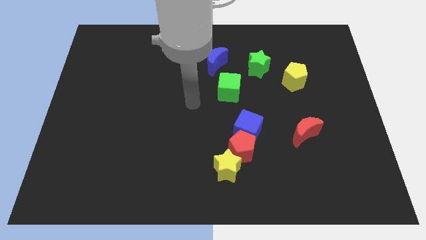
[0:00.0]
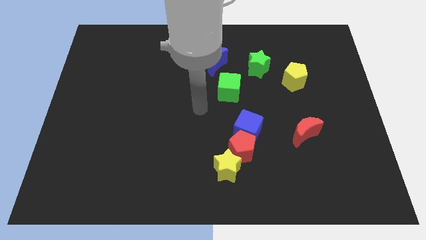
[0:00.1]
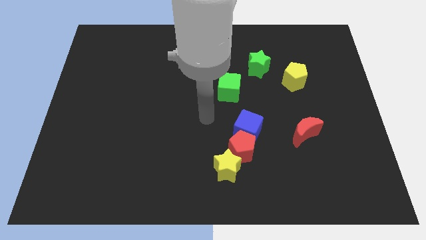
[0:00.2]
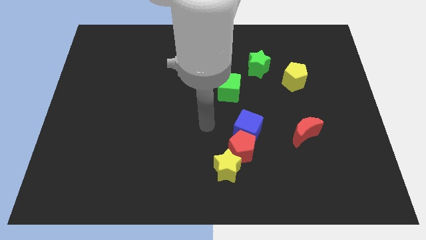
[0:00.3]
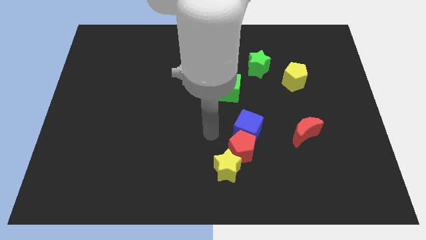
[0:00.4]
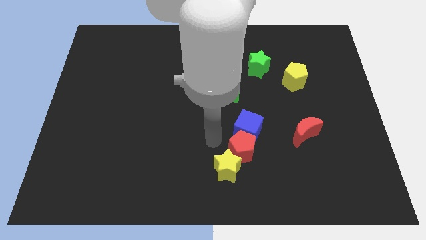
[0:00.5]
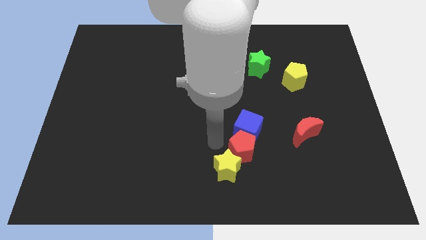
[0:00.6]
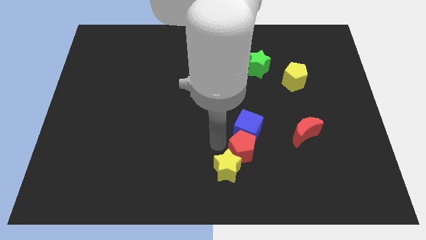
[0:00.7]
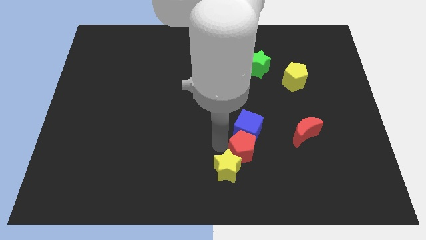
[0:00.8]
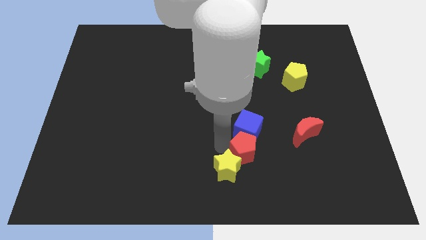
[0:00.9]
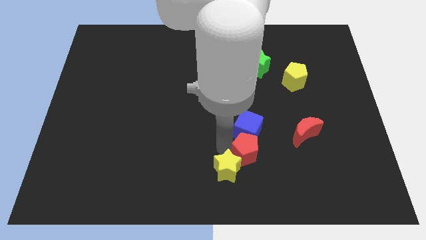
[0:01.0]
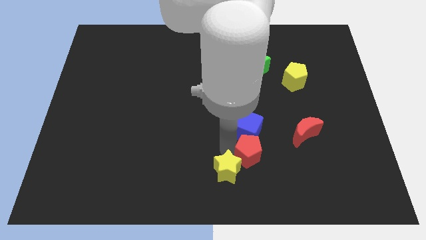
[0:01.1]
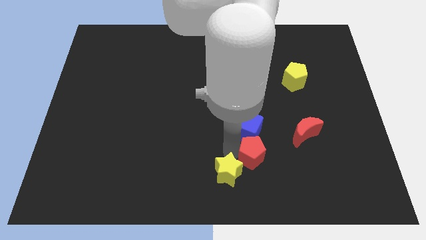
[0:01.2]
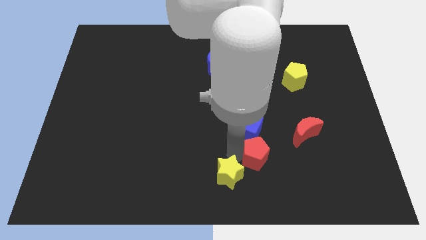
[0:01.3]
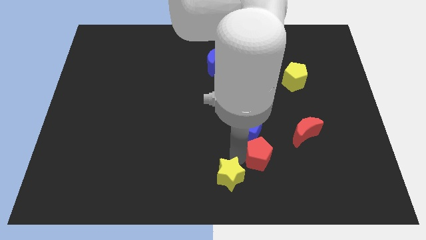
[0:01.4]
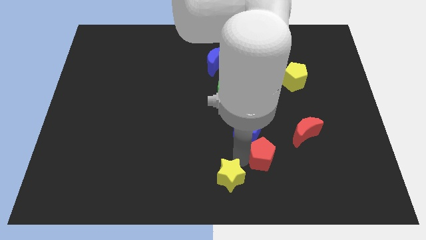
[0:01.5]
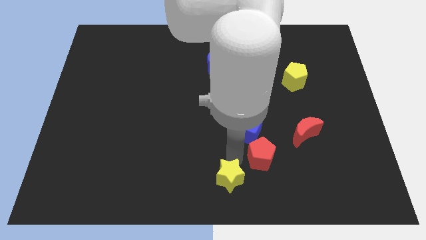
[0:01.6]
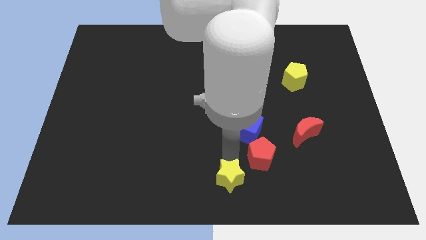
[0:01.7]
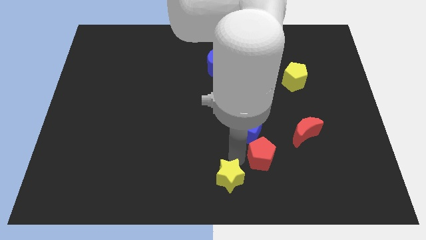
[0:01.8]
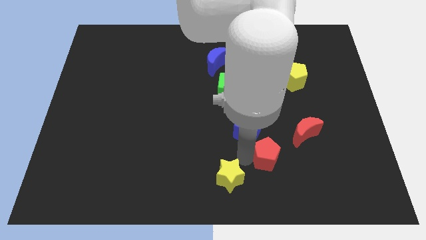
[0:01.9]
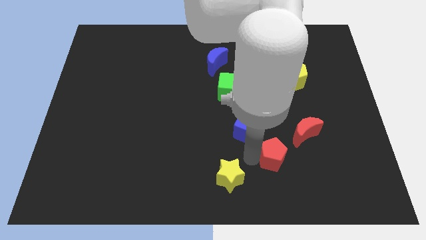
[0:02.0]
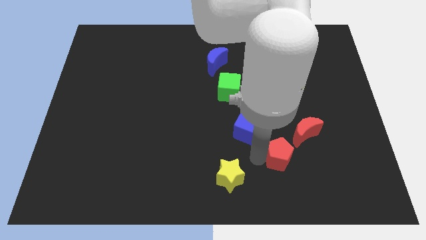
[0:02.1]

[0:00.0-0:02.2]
push the red pentagon right a little bit

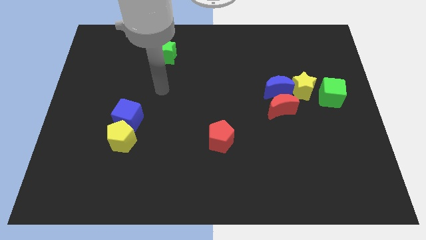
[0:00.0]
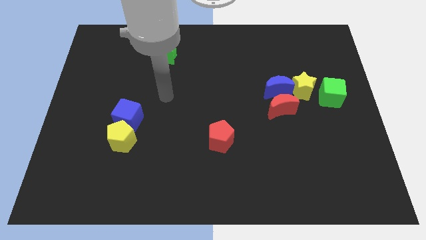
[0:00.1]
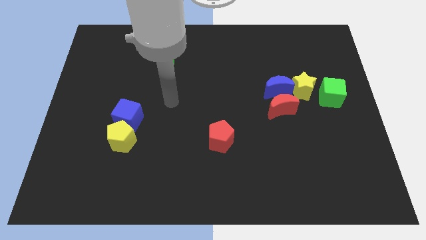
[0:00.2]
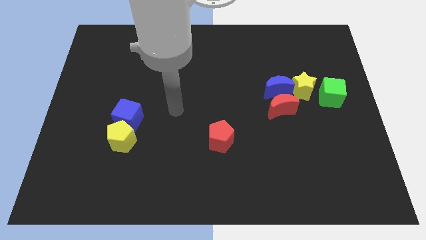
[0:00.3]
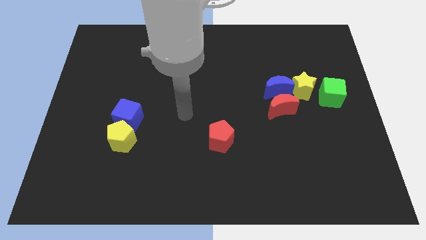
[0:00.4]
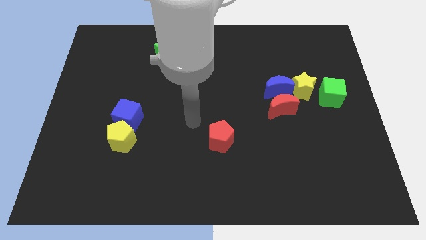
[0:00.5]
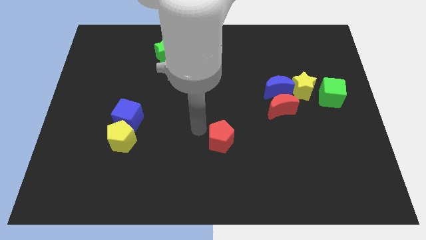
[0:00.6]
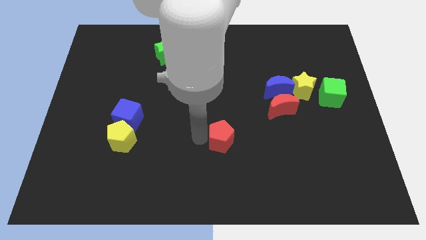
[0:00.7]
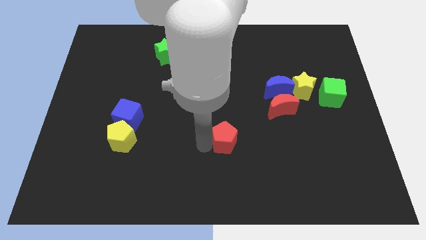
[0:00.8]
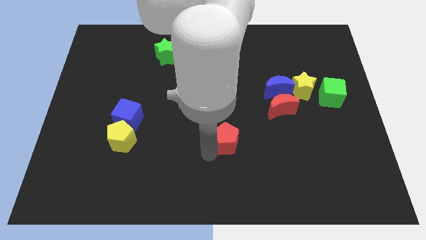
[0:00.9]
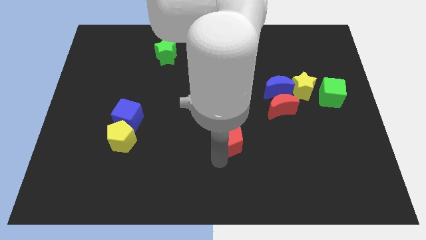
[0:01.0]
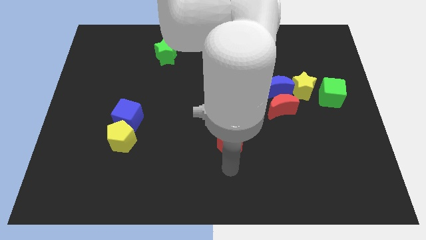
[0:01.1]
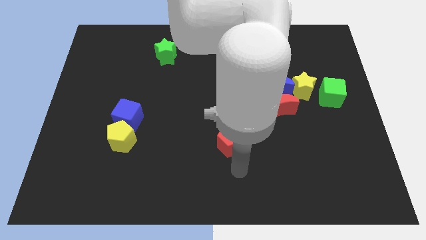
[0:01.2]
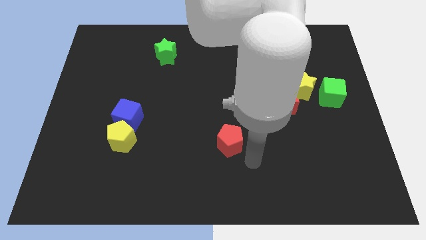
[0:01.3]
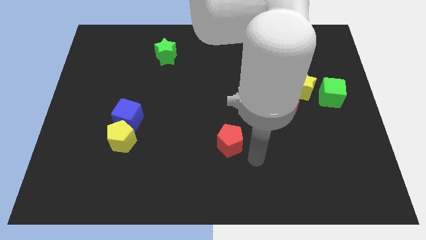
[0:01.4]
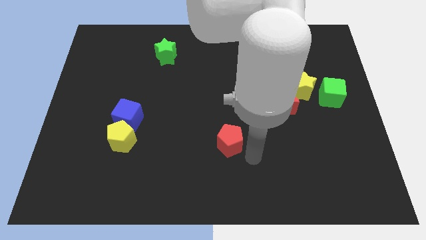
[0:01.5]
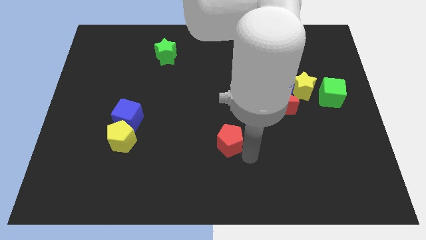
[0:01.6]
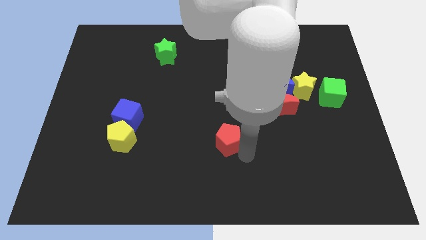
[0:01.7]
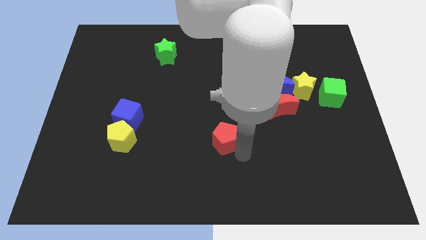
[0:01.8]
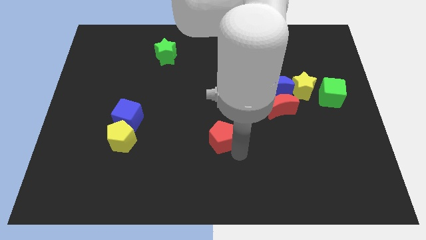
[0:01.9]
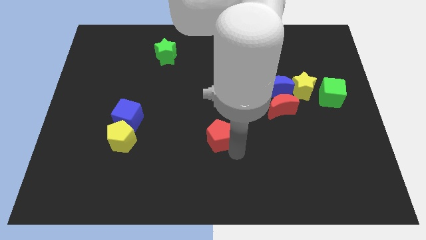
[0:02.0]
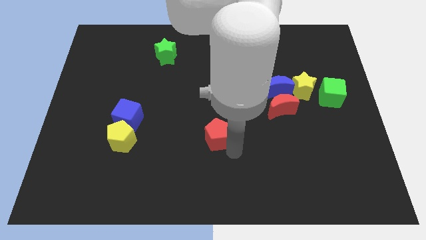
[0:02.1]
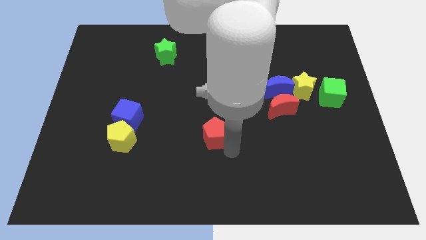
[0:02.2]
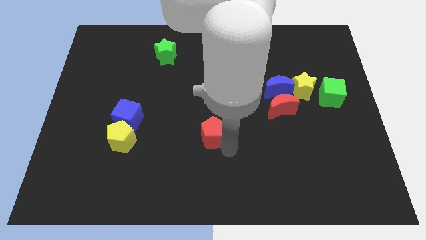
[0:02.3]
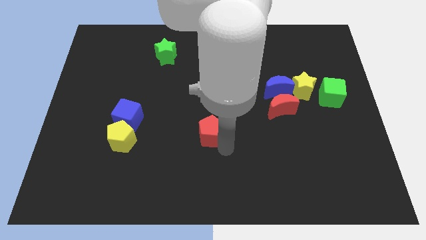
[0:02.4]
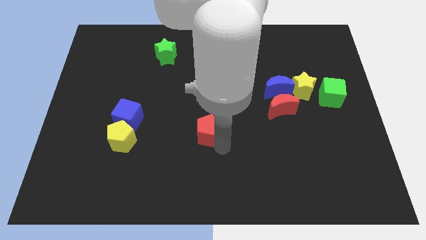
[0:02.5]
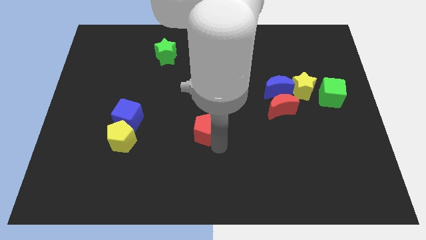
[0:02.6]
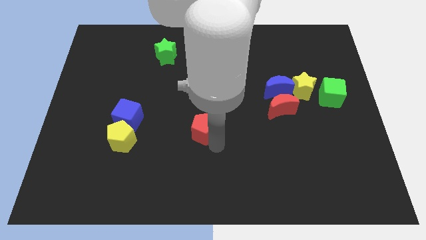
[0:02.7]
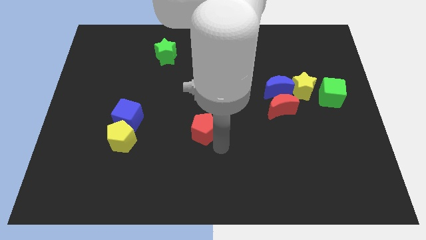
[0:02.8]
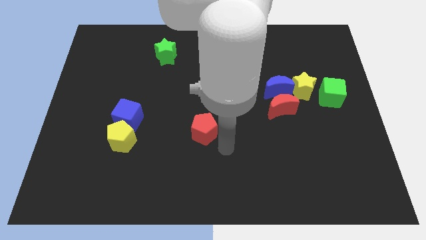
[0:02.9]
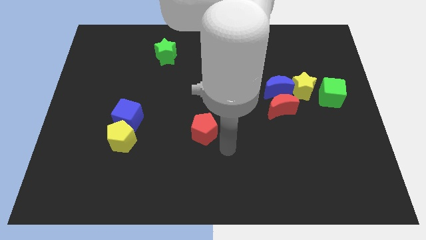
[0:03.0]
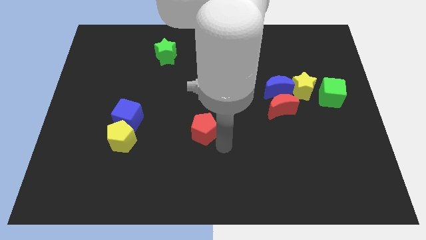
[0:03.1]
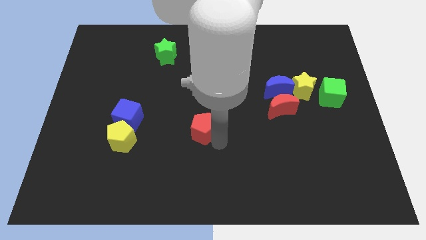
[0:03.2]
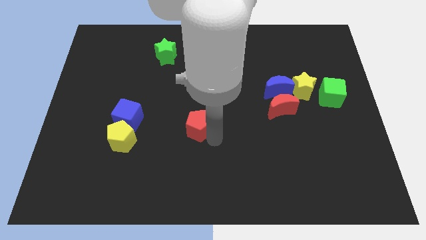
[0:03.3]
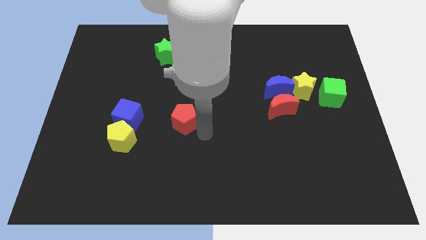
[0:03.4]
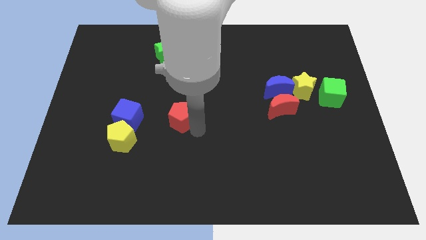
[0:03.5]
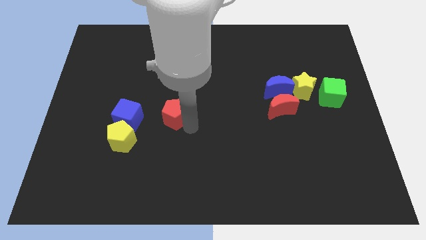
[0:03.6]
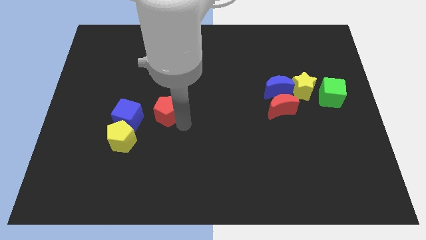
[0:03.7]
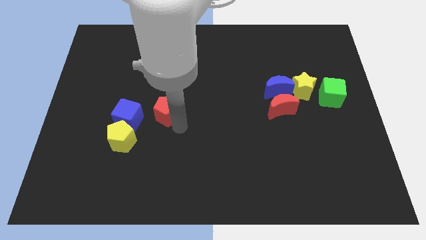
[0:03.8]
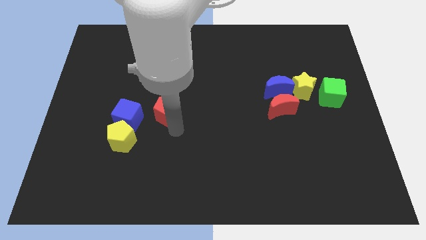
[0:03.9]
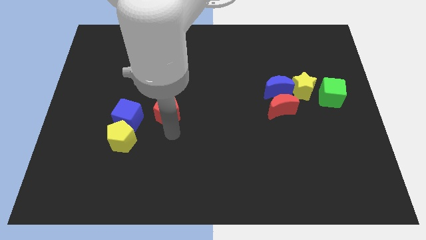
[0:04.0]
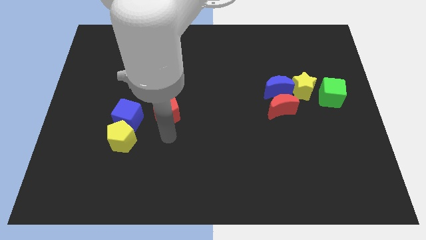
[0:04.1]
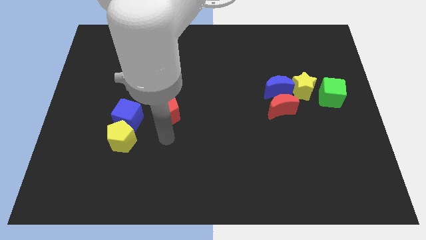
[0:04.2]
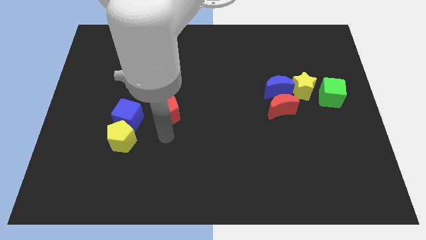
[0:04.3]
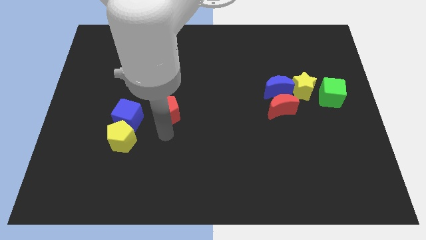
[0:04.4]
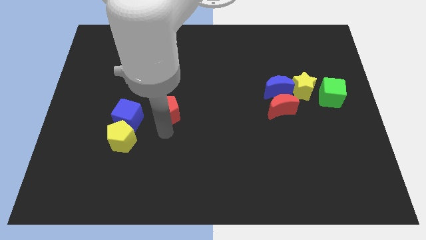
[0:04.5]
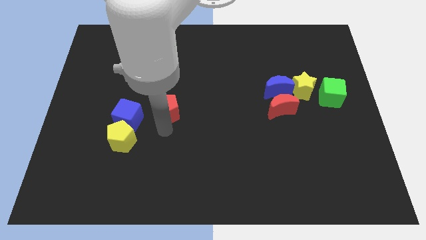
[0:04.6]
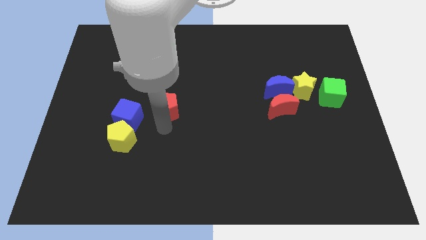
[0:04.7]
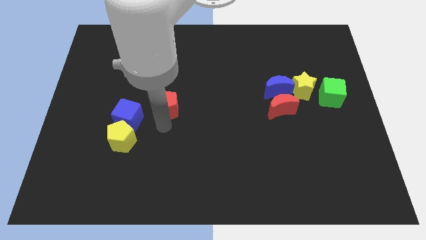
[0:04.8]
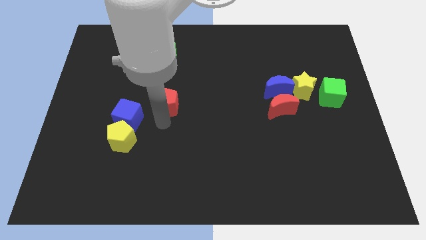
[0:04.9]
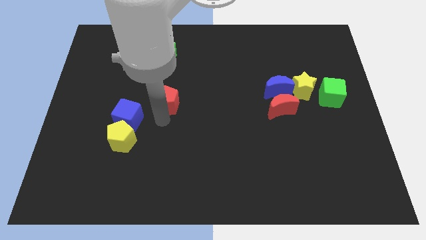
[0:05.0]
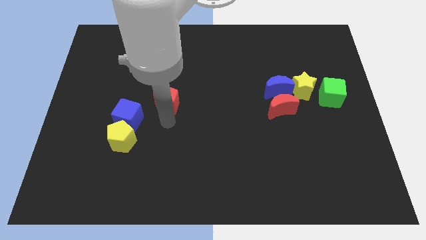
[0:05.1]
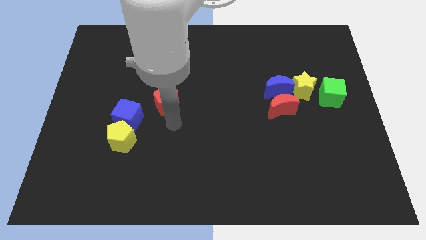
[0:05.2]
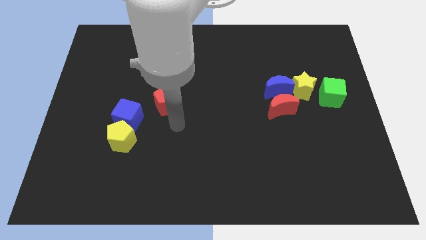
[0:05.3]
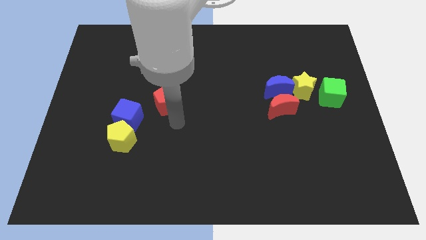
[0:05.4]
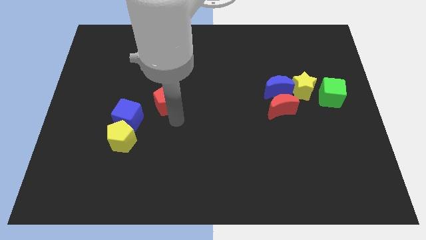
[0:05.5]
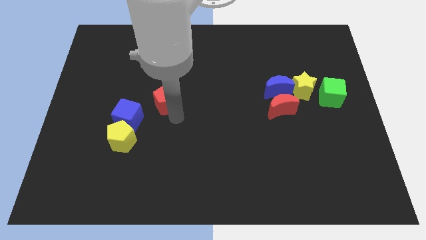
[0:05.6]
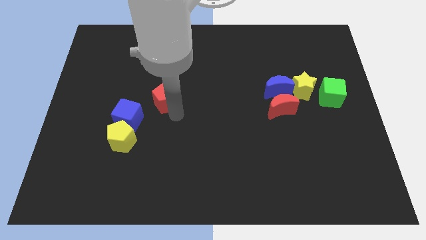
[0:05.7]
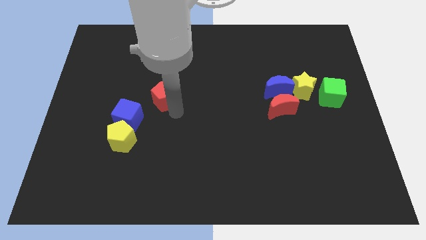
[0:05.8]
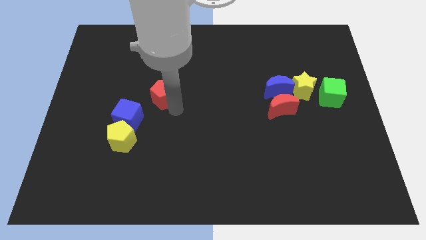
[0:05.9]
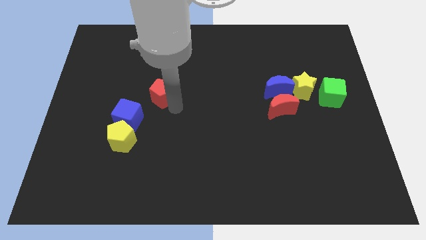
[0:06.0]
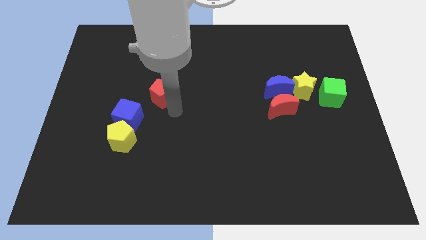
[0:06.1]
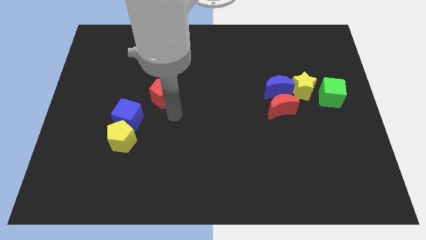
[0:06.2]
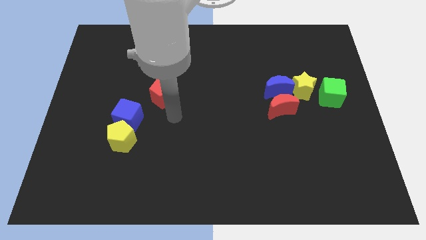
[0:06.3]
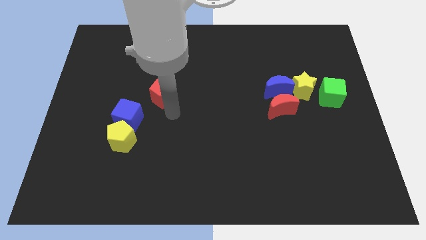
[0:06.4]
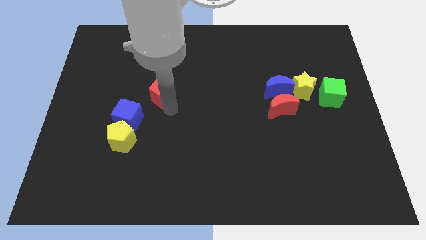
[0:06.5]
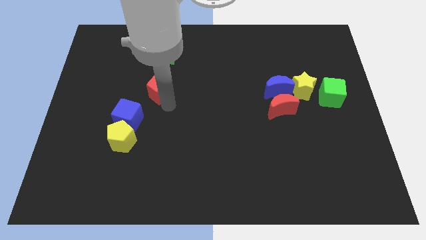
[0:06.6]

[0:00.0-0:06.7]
push the red pentagon up and then left
